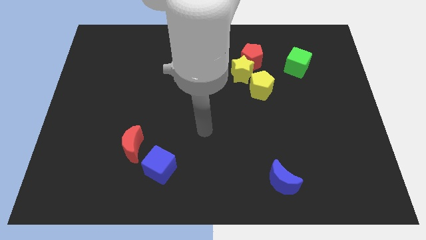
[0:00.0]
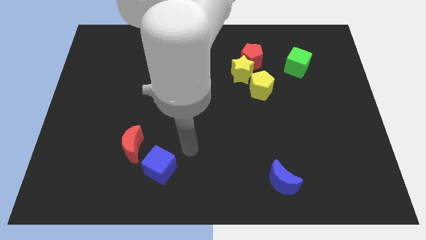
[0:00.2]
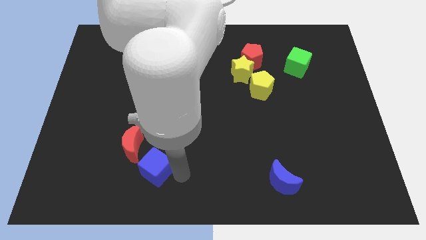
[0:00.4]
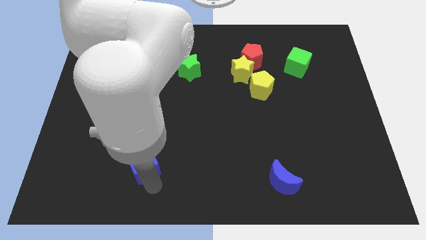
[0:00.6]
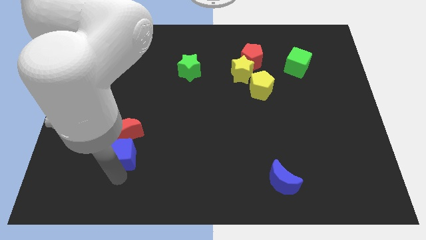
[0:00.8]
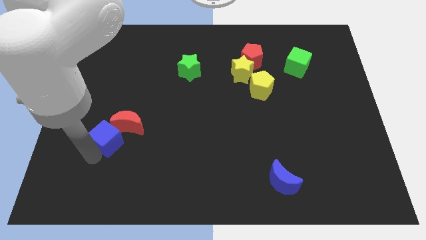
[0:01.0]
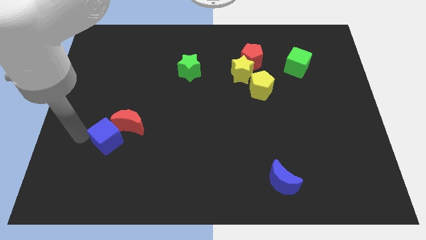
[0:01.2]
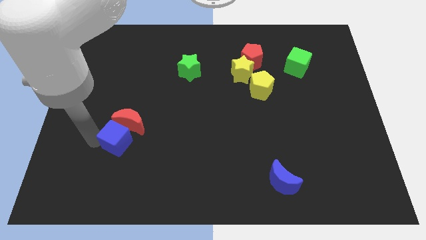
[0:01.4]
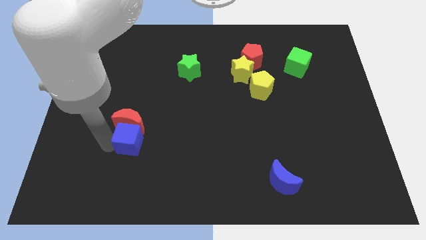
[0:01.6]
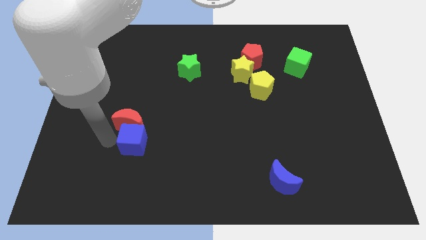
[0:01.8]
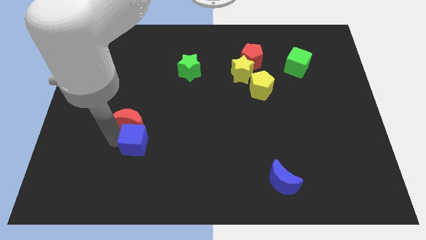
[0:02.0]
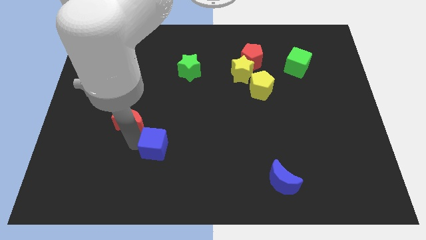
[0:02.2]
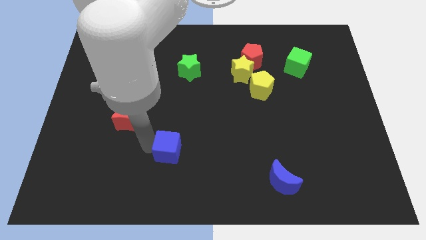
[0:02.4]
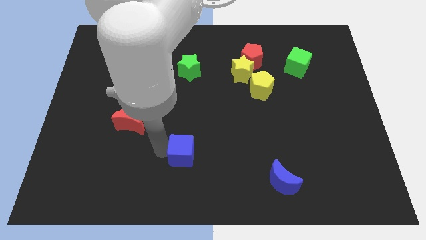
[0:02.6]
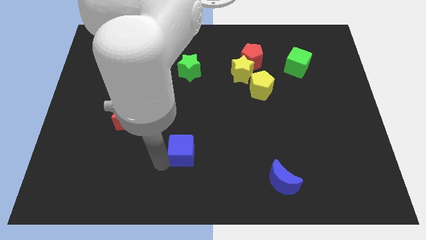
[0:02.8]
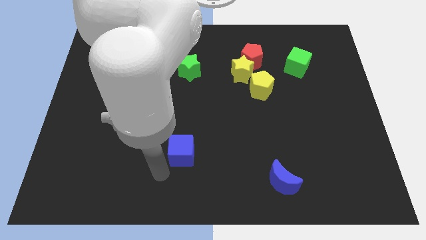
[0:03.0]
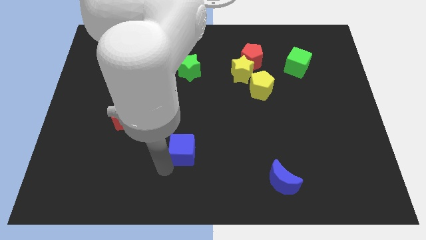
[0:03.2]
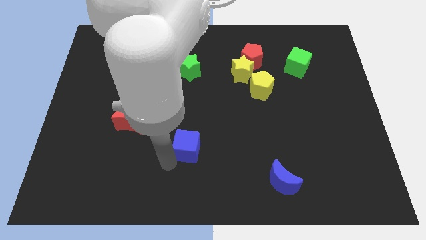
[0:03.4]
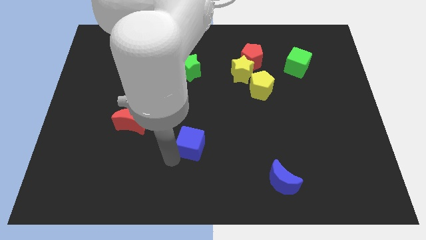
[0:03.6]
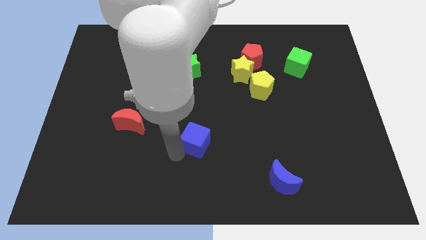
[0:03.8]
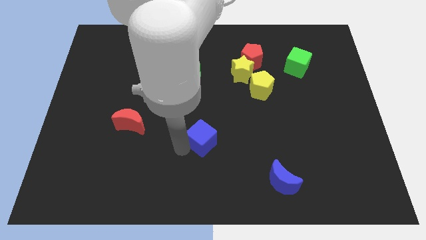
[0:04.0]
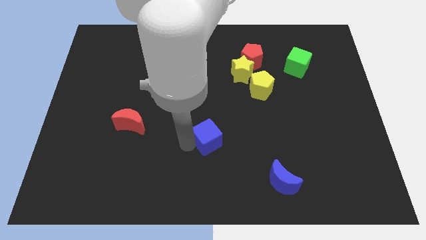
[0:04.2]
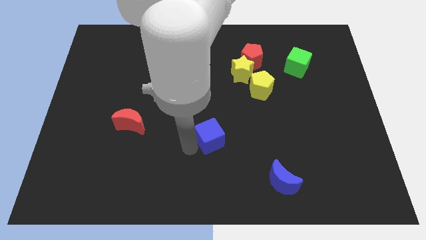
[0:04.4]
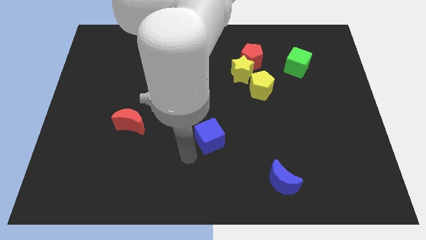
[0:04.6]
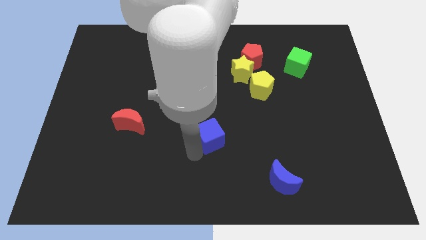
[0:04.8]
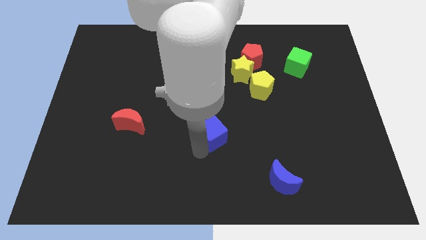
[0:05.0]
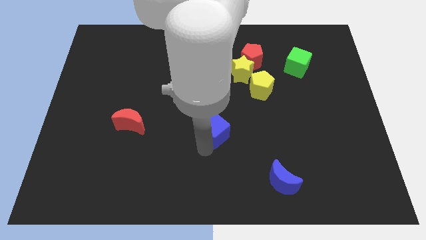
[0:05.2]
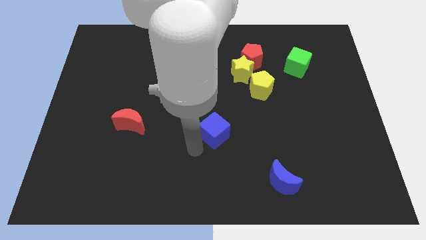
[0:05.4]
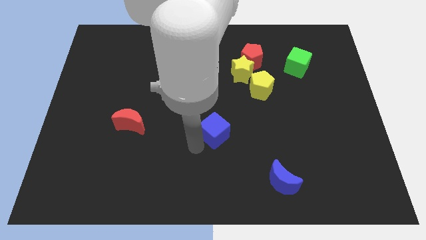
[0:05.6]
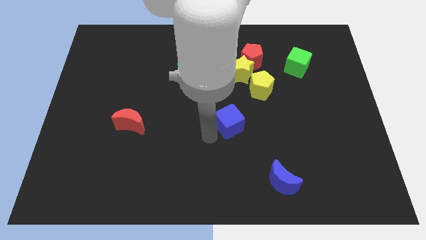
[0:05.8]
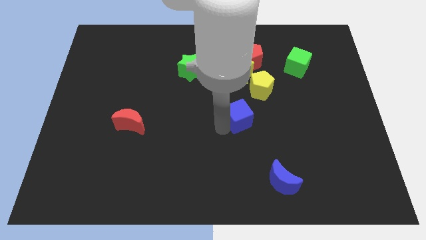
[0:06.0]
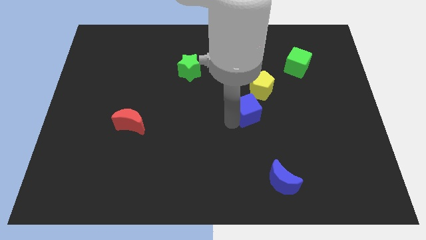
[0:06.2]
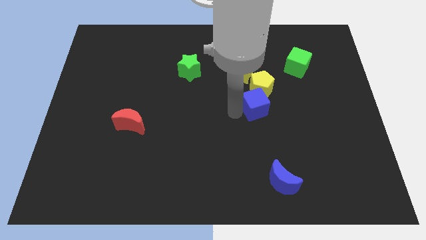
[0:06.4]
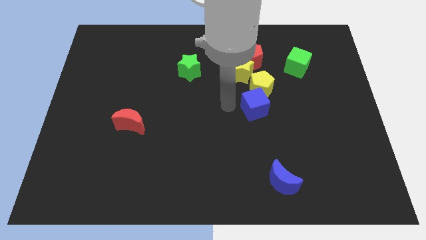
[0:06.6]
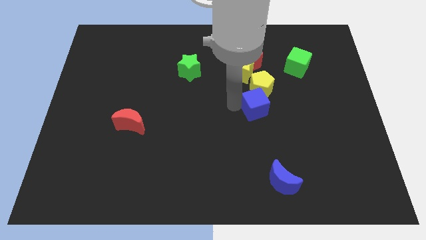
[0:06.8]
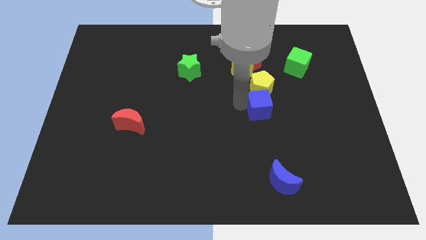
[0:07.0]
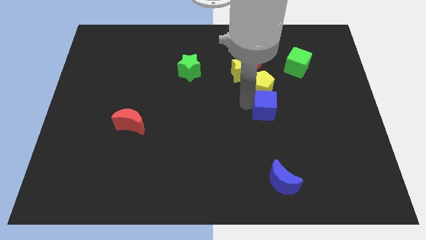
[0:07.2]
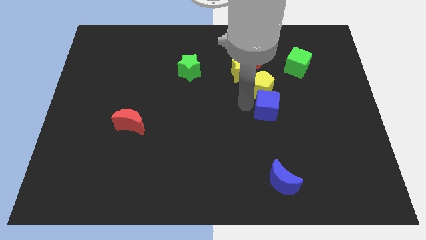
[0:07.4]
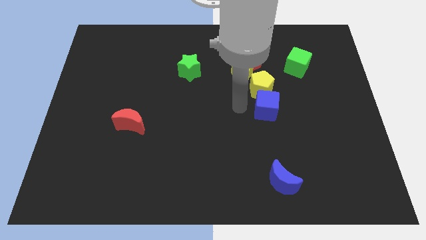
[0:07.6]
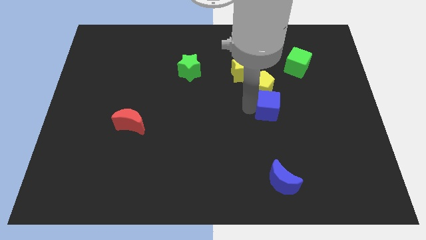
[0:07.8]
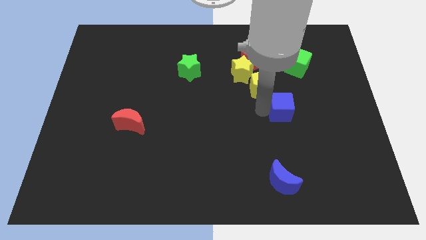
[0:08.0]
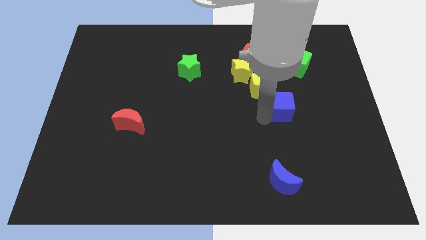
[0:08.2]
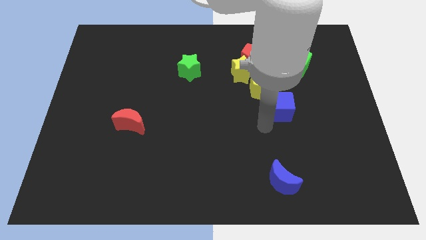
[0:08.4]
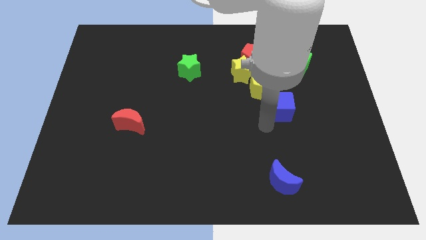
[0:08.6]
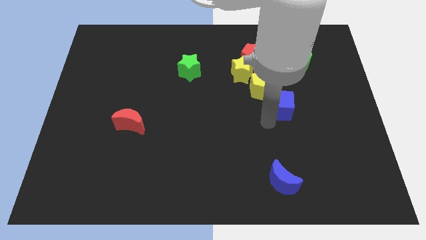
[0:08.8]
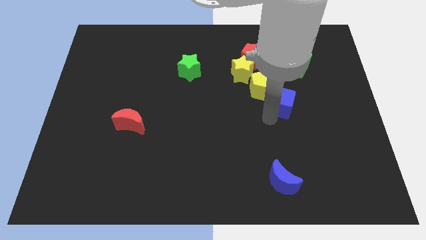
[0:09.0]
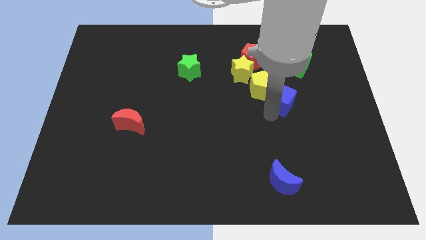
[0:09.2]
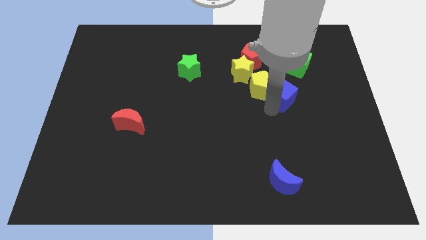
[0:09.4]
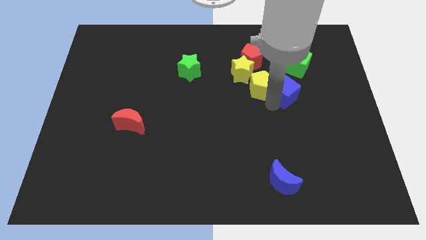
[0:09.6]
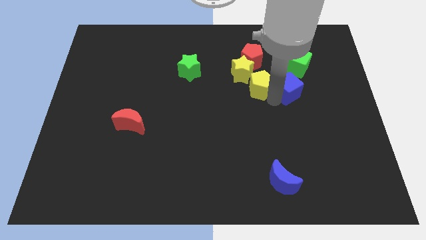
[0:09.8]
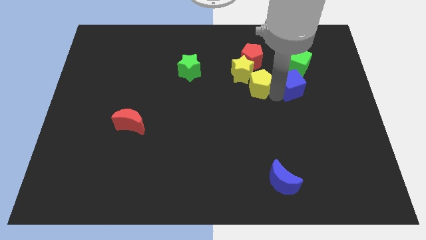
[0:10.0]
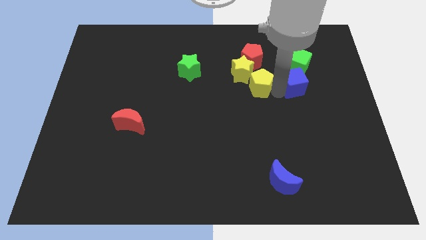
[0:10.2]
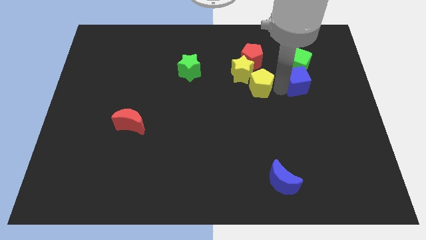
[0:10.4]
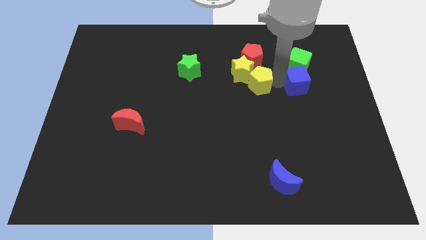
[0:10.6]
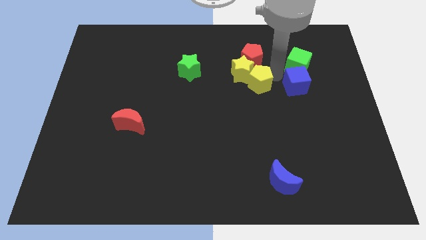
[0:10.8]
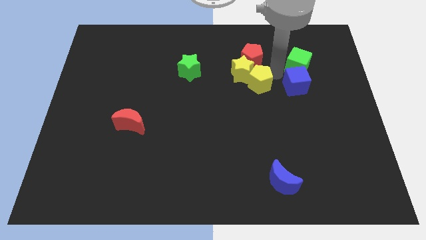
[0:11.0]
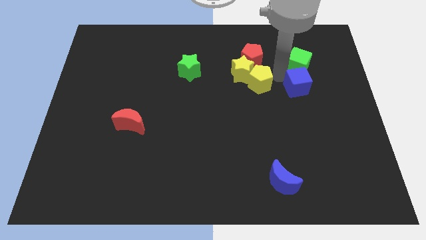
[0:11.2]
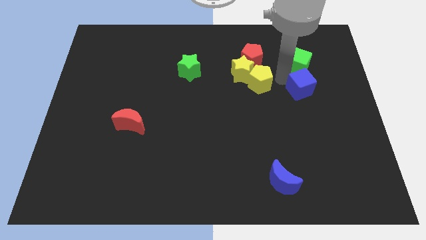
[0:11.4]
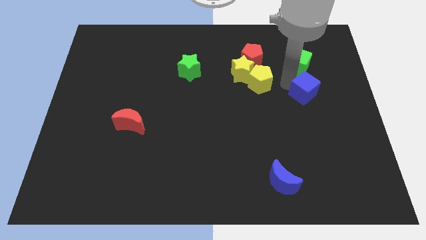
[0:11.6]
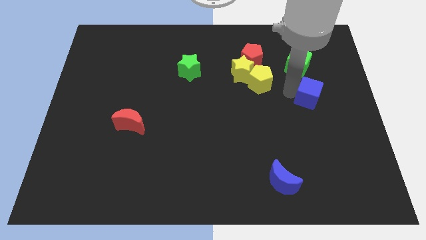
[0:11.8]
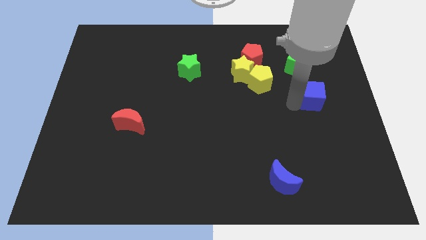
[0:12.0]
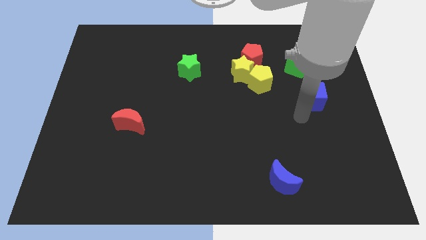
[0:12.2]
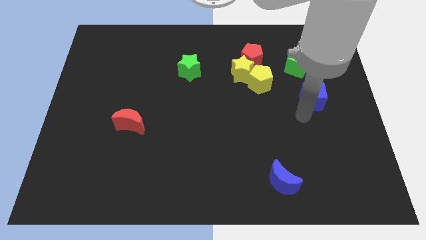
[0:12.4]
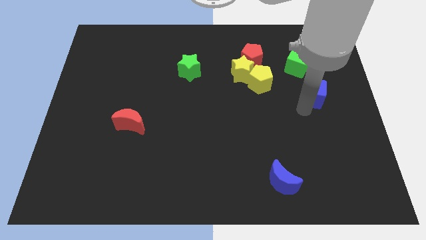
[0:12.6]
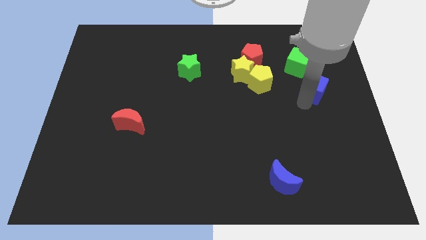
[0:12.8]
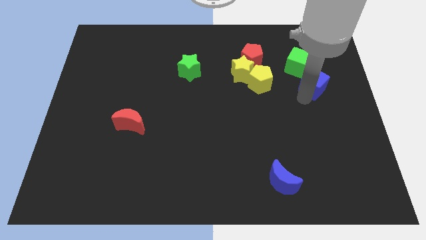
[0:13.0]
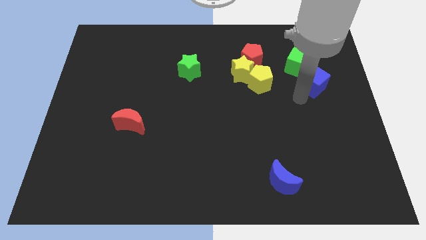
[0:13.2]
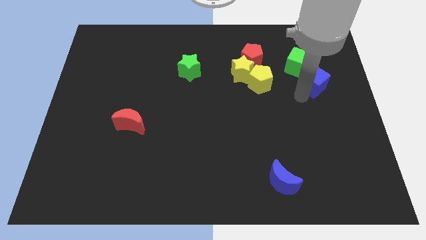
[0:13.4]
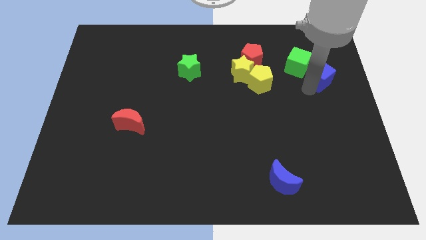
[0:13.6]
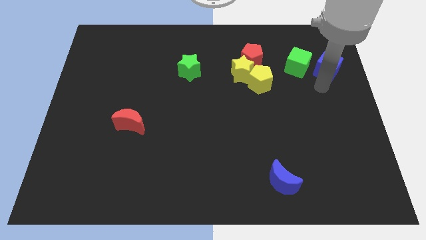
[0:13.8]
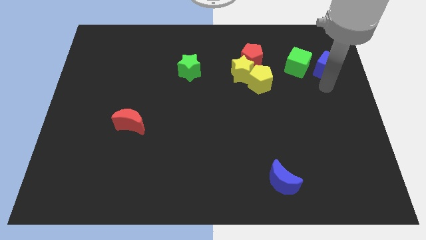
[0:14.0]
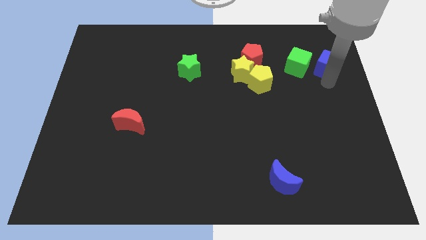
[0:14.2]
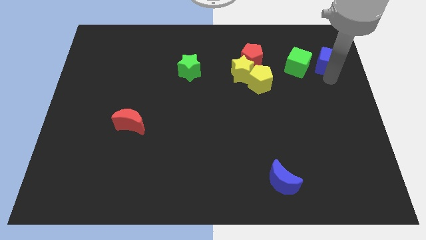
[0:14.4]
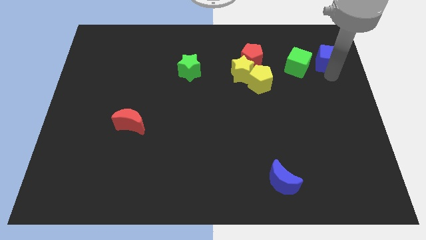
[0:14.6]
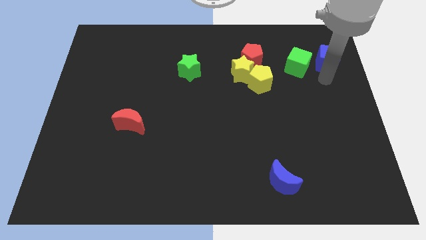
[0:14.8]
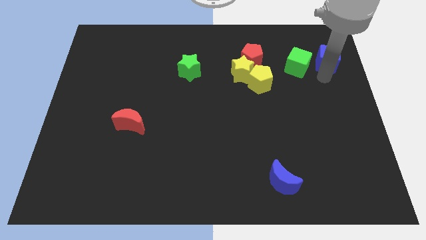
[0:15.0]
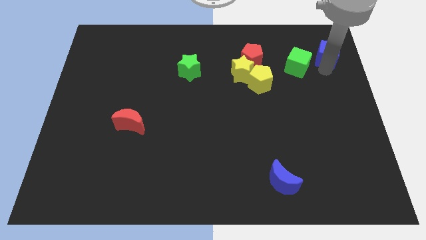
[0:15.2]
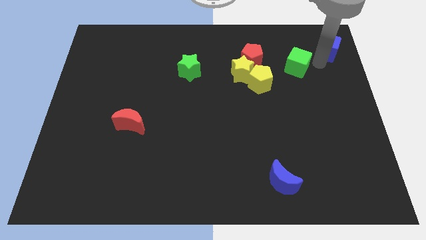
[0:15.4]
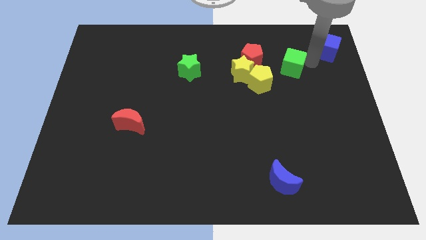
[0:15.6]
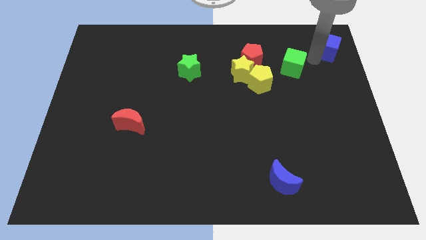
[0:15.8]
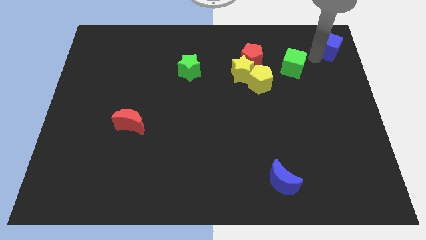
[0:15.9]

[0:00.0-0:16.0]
slide the blue cube to the upper right corner
